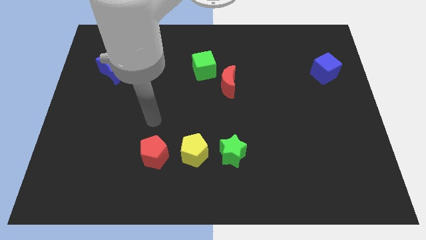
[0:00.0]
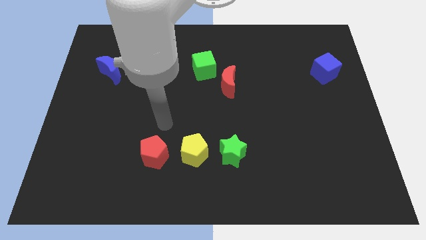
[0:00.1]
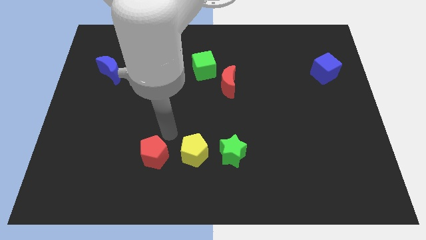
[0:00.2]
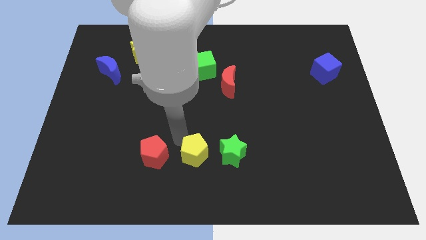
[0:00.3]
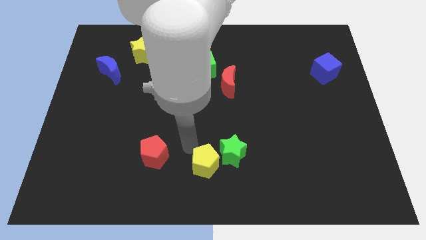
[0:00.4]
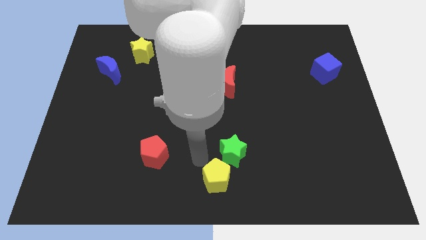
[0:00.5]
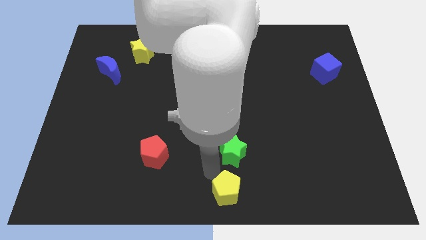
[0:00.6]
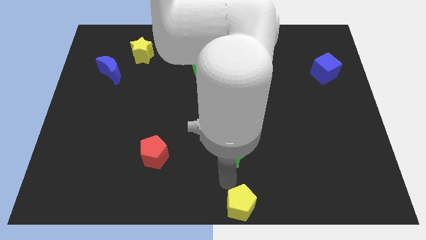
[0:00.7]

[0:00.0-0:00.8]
separate the green star from the yellow pentagon

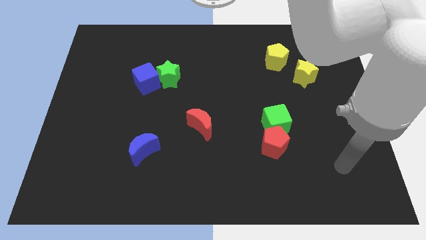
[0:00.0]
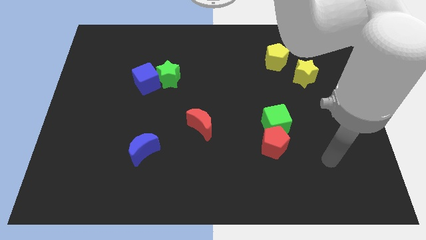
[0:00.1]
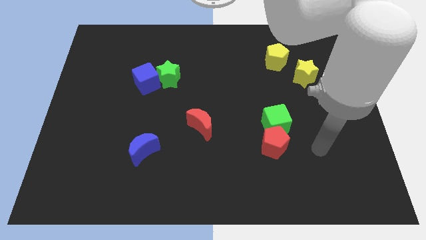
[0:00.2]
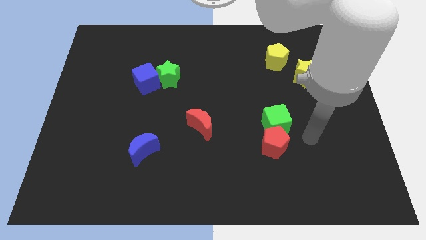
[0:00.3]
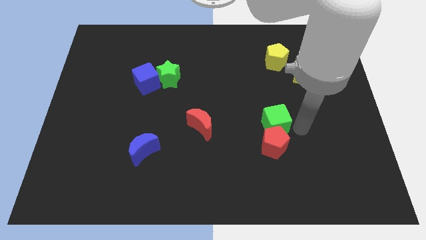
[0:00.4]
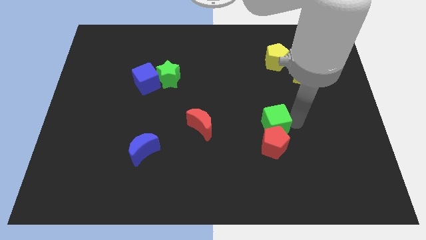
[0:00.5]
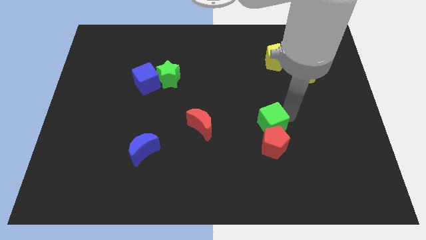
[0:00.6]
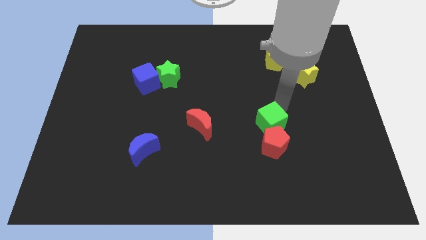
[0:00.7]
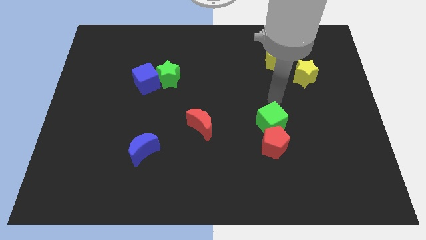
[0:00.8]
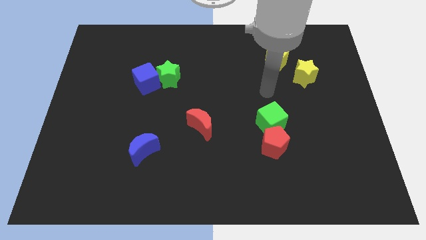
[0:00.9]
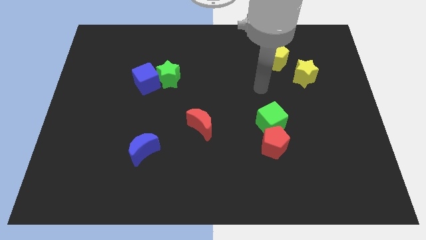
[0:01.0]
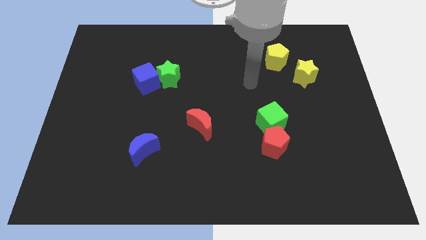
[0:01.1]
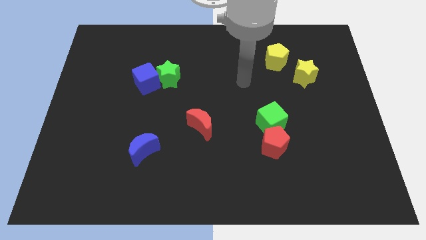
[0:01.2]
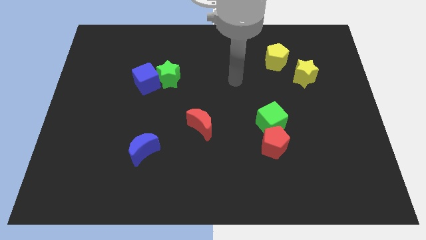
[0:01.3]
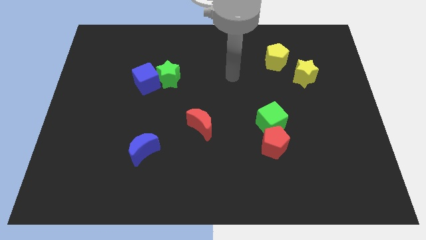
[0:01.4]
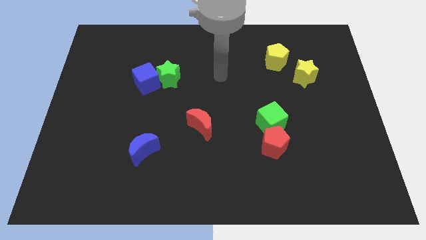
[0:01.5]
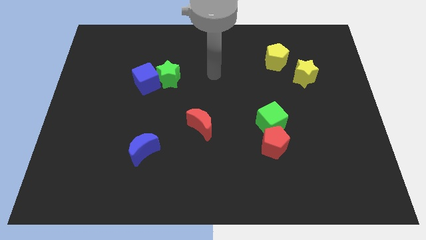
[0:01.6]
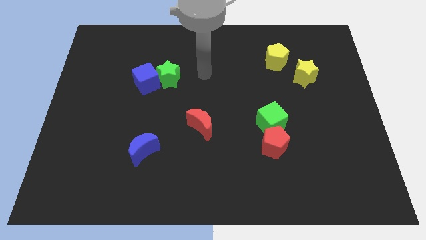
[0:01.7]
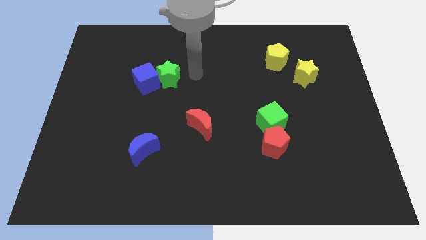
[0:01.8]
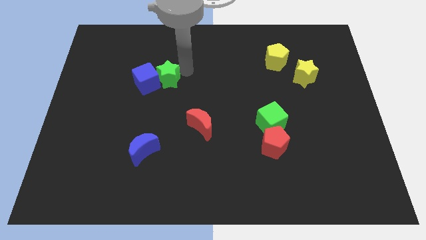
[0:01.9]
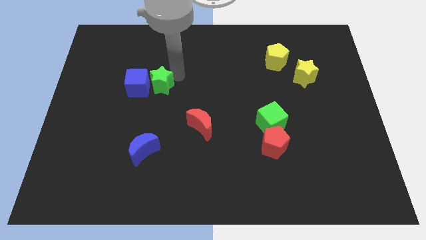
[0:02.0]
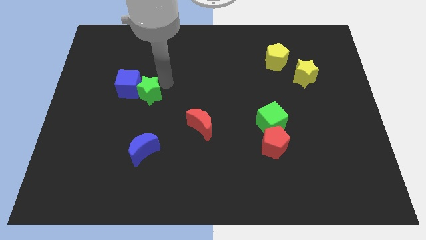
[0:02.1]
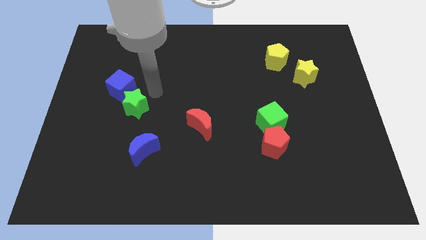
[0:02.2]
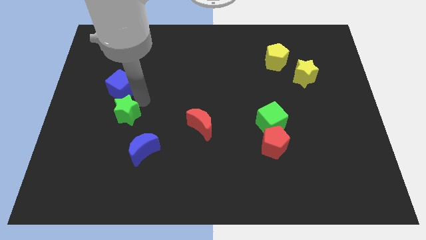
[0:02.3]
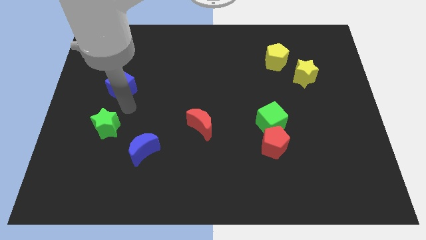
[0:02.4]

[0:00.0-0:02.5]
move the blue cube away from the green star

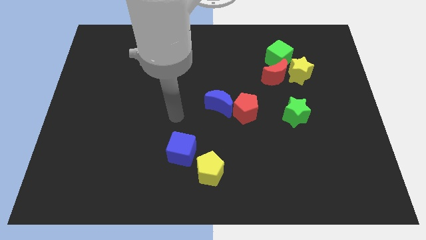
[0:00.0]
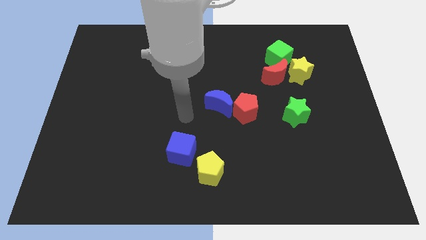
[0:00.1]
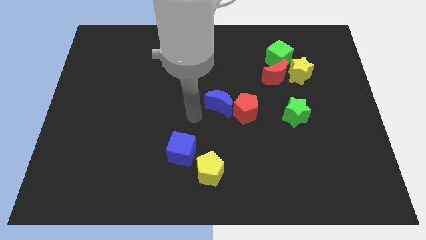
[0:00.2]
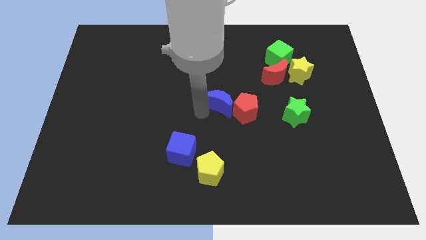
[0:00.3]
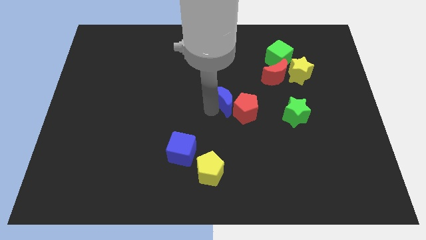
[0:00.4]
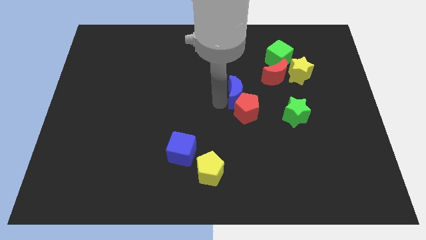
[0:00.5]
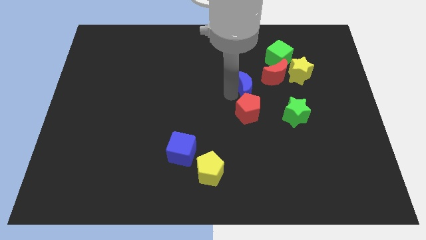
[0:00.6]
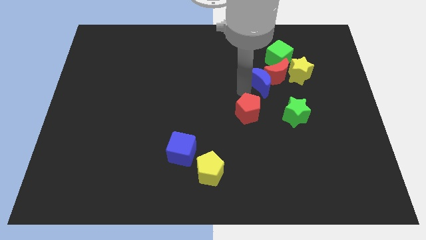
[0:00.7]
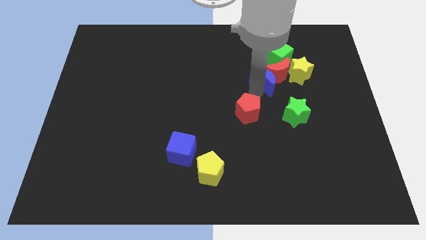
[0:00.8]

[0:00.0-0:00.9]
move the red pentagon away from the blue moon

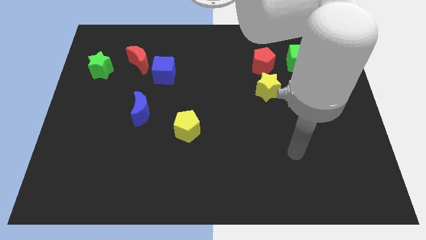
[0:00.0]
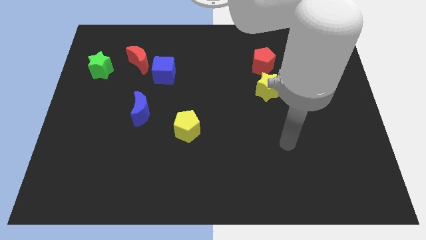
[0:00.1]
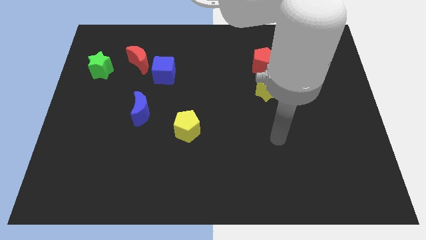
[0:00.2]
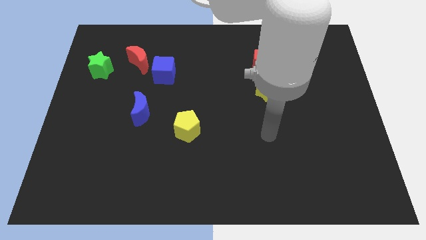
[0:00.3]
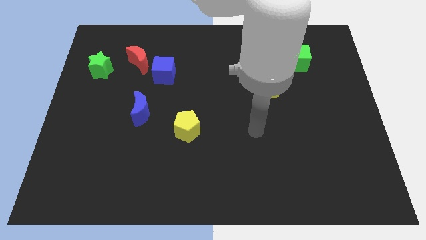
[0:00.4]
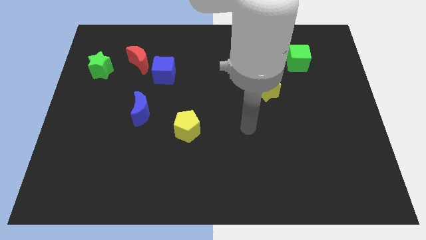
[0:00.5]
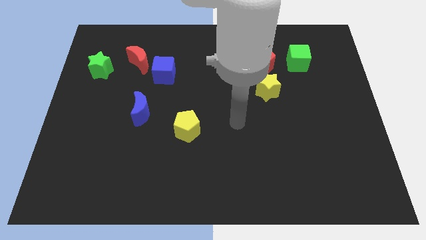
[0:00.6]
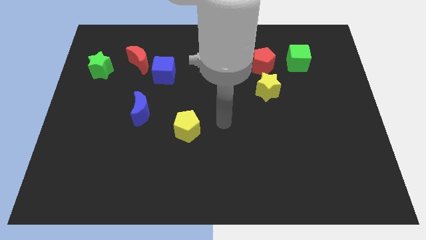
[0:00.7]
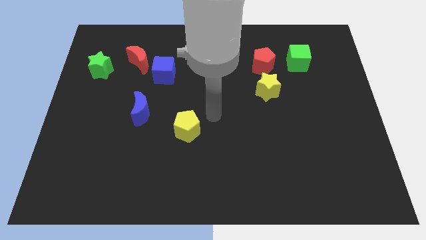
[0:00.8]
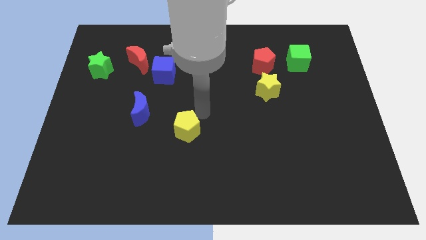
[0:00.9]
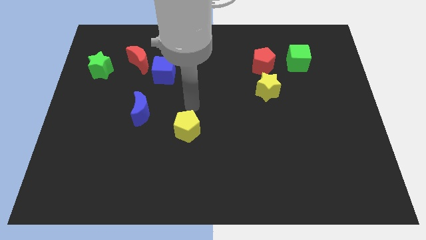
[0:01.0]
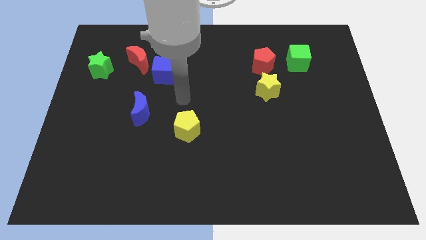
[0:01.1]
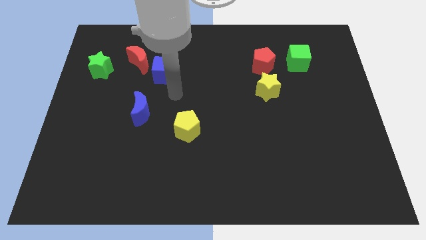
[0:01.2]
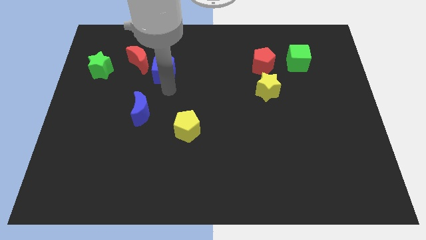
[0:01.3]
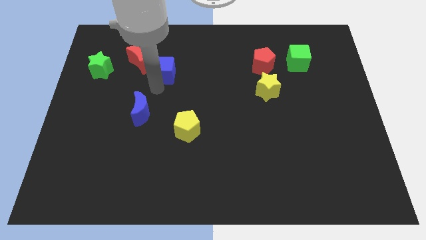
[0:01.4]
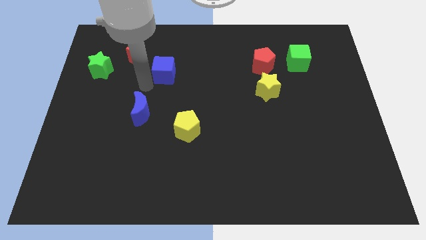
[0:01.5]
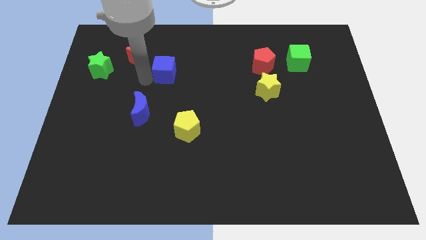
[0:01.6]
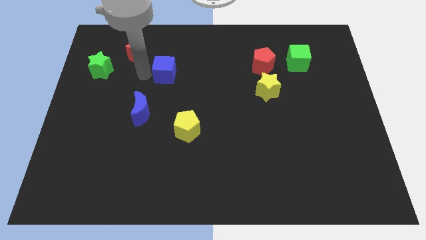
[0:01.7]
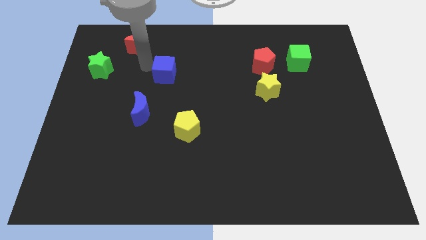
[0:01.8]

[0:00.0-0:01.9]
separate the blue cube from the red moon

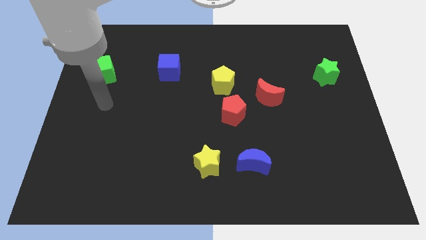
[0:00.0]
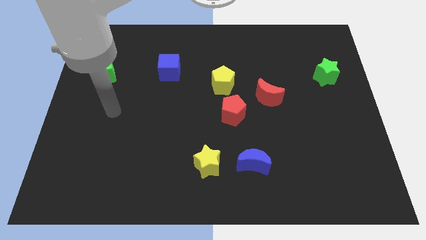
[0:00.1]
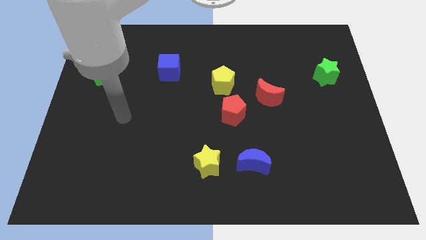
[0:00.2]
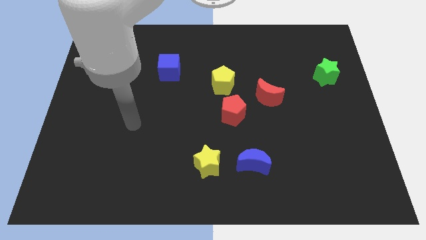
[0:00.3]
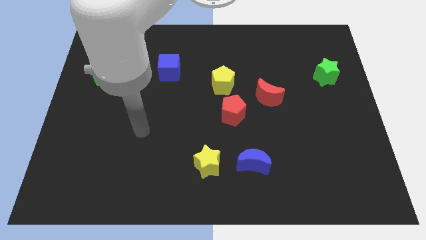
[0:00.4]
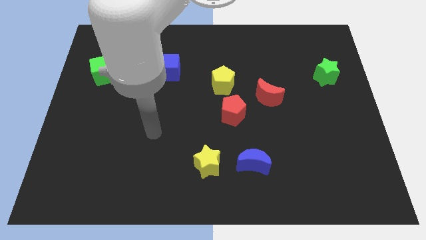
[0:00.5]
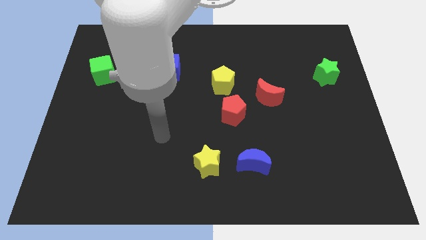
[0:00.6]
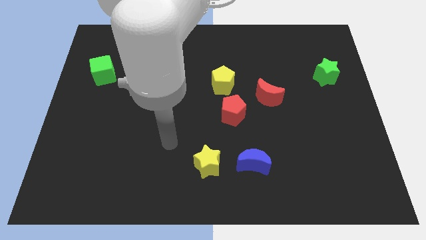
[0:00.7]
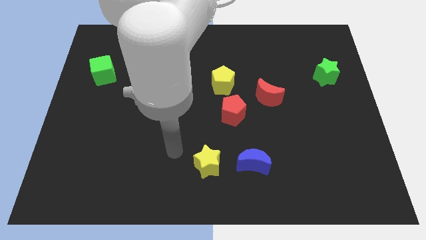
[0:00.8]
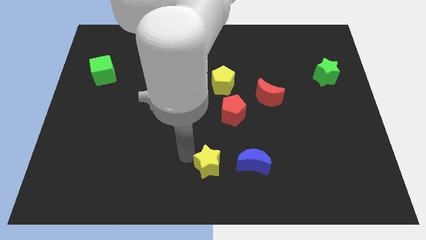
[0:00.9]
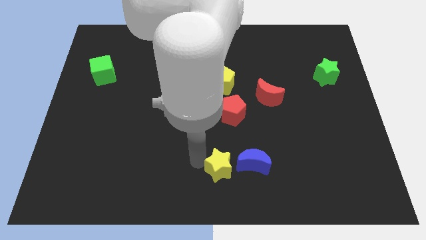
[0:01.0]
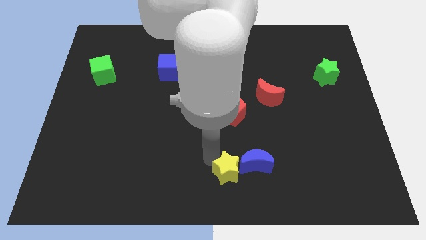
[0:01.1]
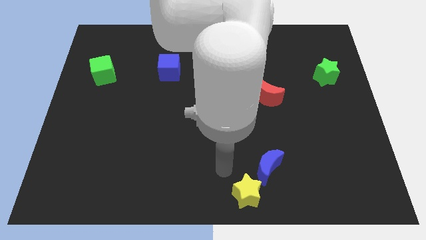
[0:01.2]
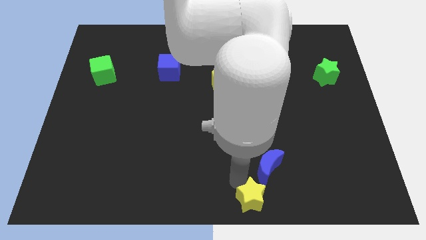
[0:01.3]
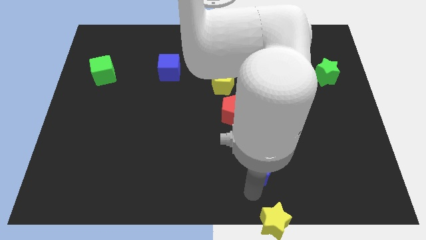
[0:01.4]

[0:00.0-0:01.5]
separate the blue moon from the yellow star

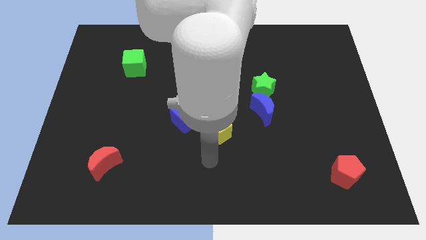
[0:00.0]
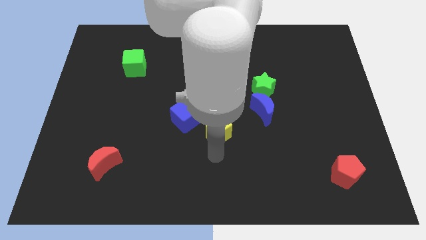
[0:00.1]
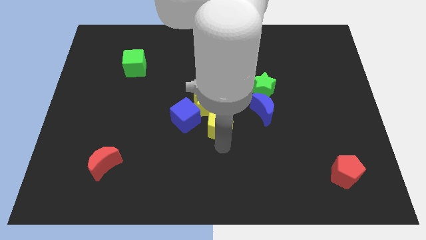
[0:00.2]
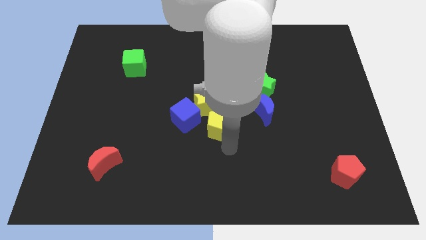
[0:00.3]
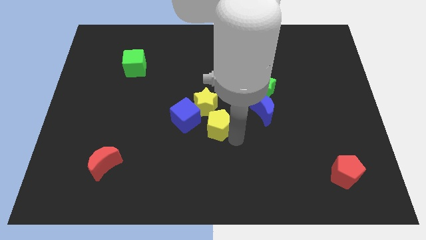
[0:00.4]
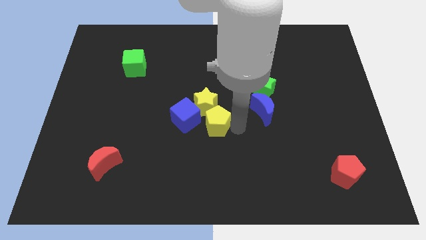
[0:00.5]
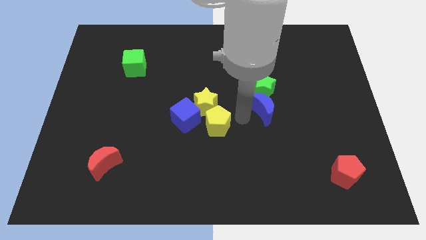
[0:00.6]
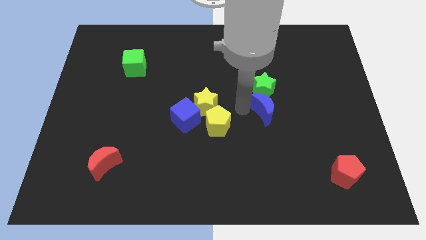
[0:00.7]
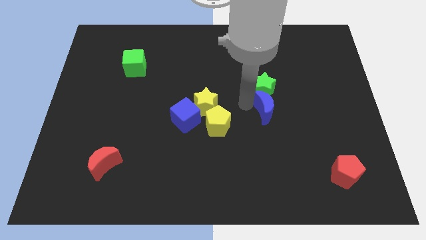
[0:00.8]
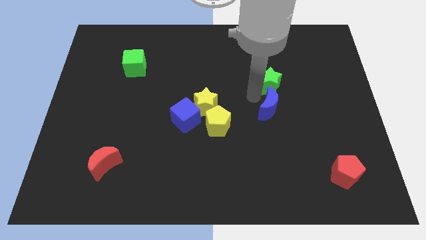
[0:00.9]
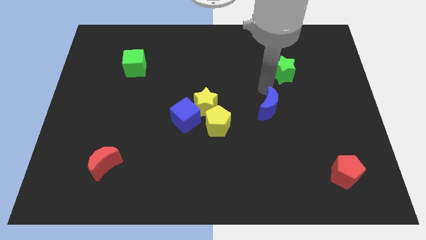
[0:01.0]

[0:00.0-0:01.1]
move the blue moon away from the green star

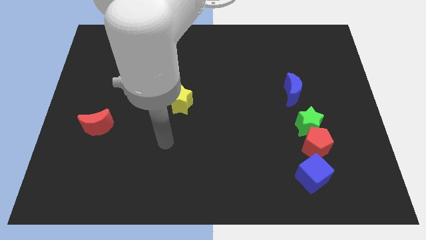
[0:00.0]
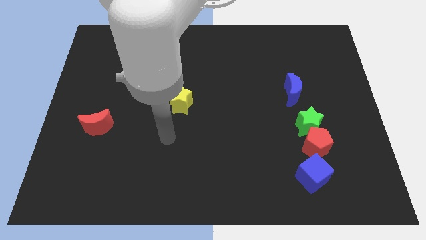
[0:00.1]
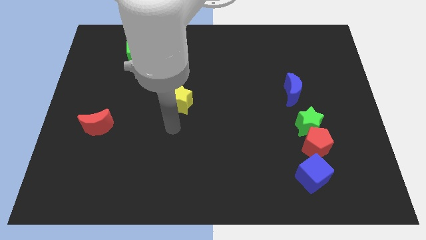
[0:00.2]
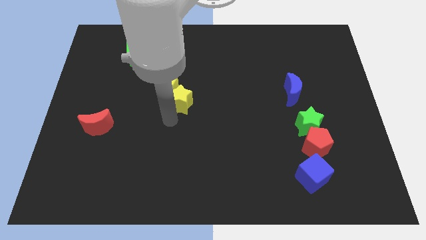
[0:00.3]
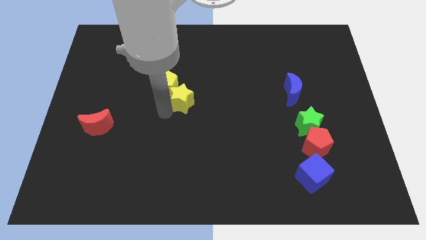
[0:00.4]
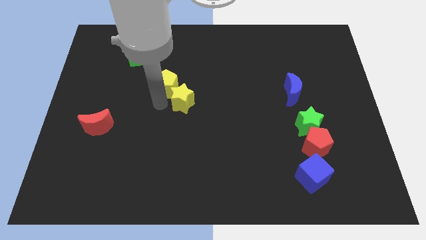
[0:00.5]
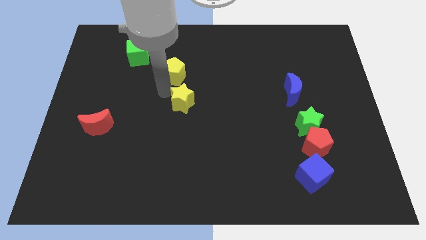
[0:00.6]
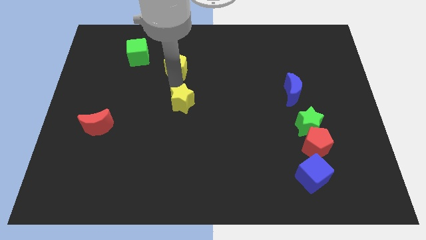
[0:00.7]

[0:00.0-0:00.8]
move the yellow star away from the yellow pentagon
